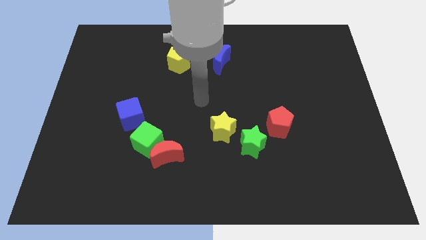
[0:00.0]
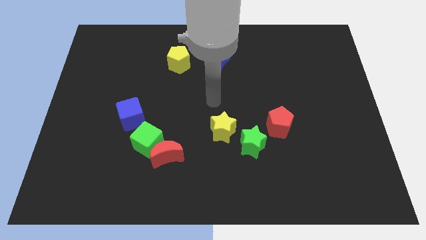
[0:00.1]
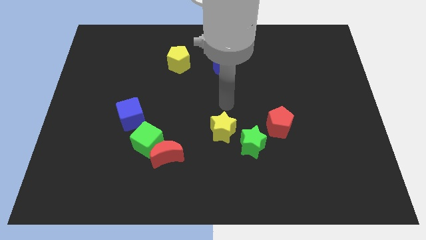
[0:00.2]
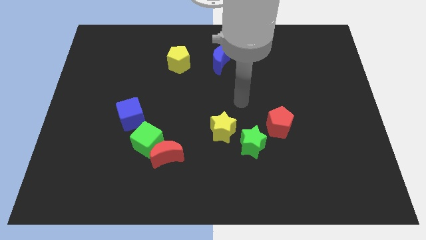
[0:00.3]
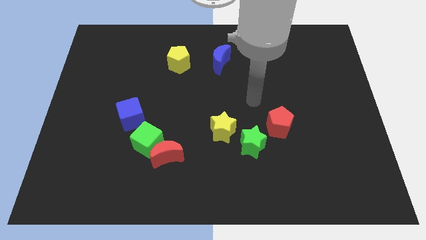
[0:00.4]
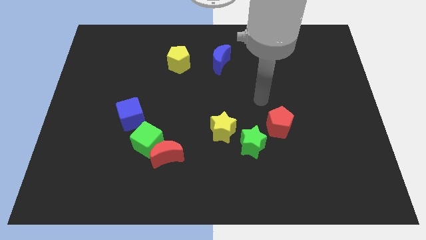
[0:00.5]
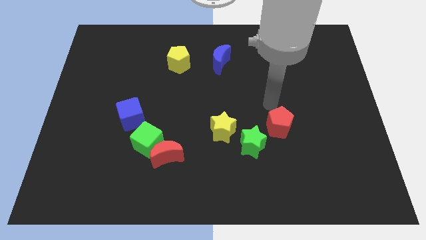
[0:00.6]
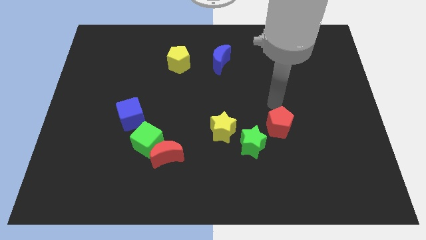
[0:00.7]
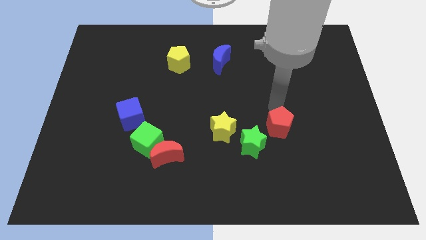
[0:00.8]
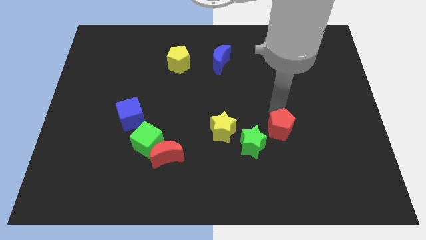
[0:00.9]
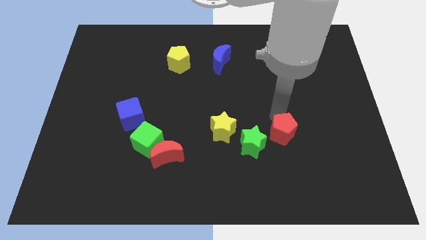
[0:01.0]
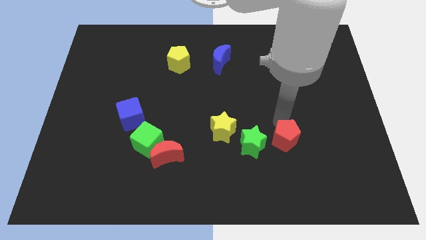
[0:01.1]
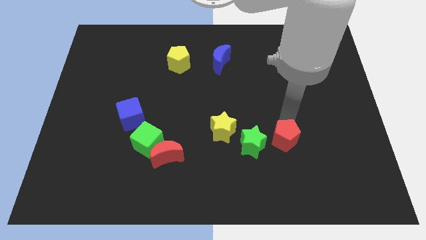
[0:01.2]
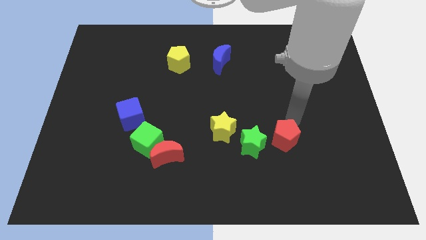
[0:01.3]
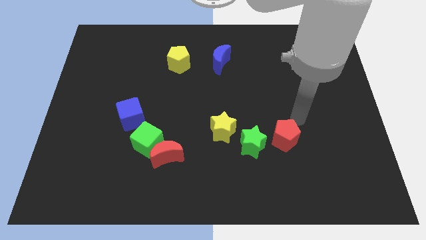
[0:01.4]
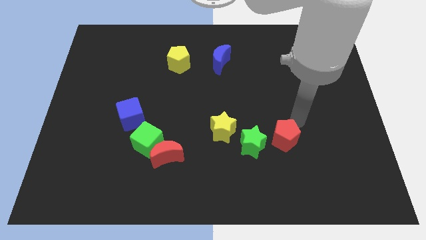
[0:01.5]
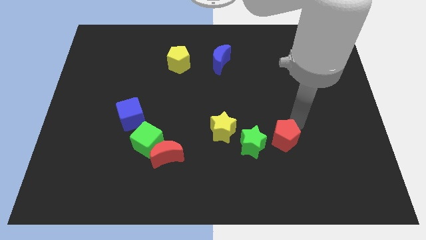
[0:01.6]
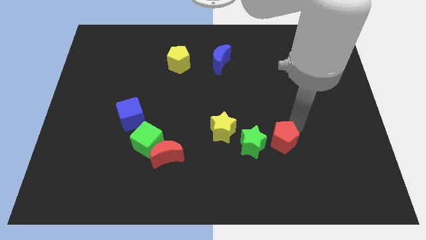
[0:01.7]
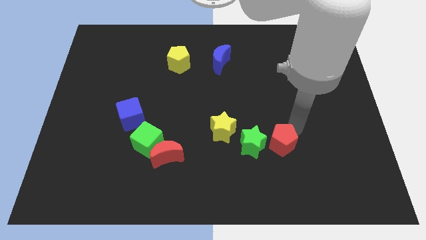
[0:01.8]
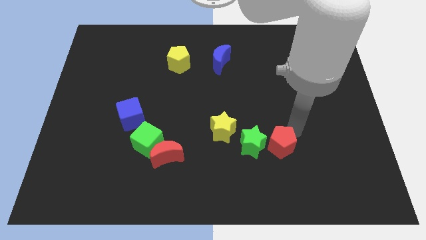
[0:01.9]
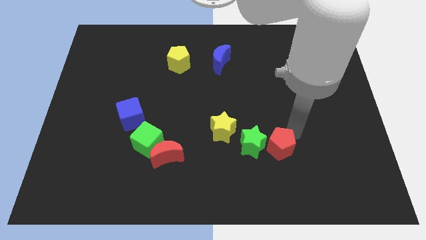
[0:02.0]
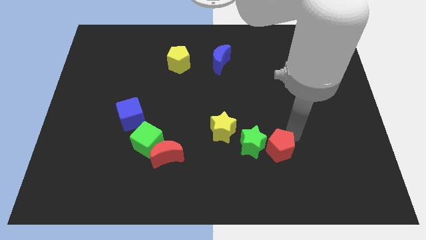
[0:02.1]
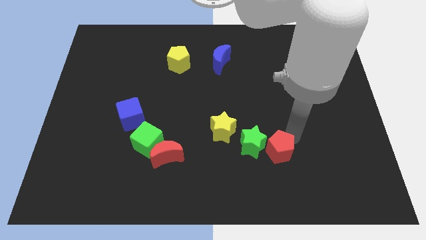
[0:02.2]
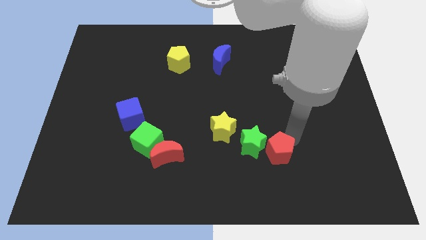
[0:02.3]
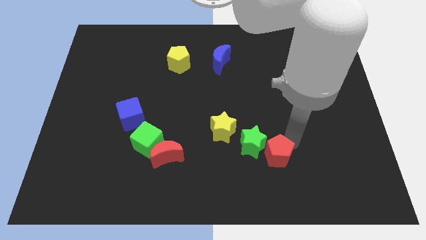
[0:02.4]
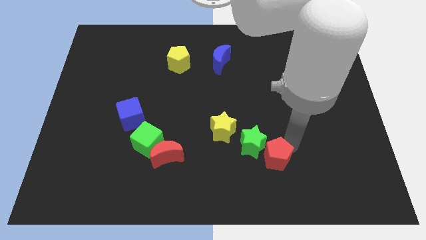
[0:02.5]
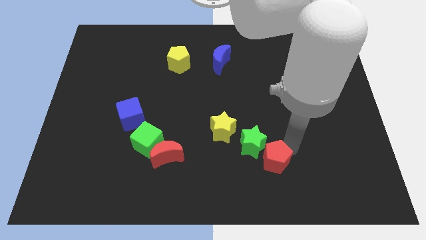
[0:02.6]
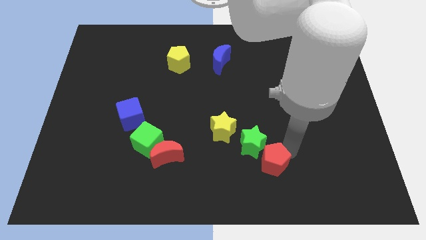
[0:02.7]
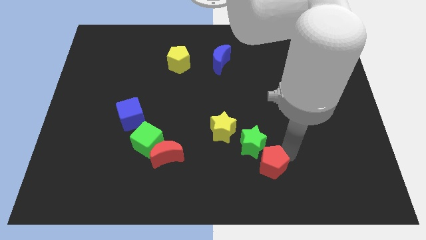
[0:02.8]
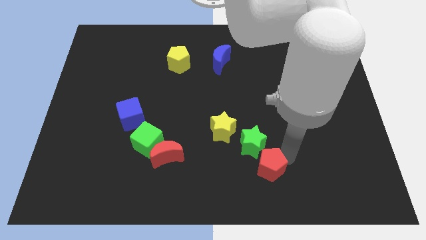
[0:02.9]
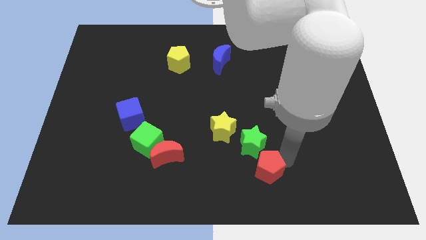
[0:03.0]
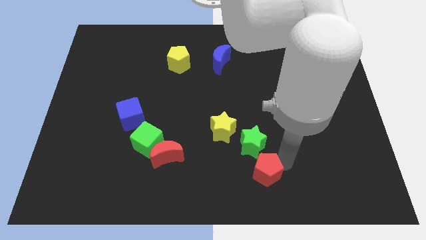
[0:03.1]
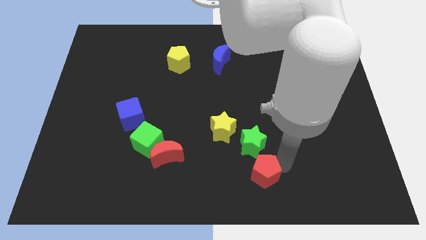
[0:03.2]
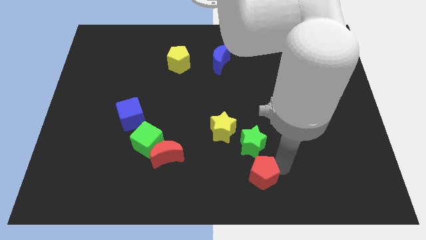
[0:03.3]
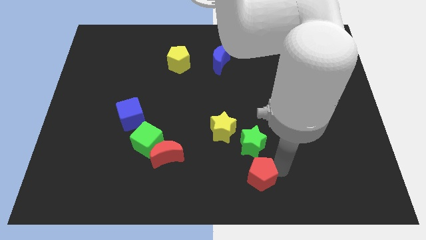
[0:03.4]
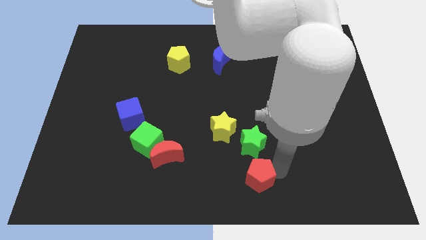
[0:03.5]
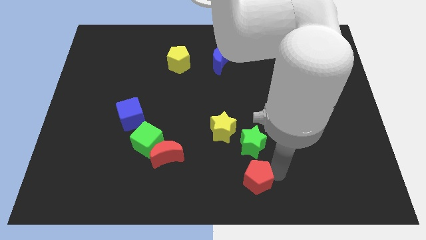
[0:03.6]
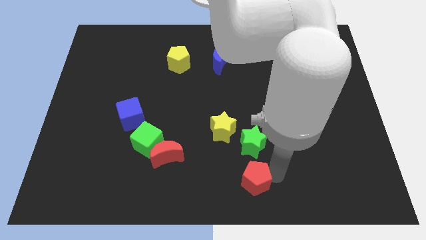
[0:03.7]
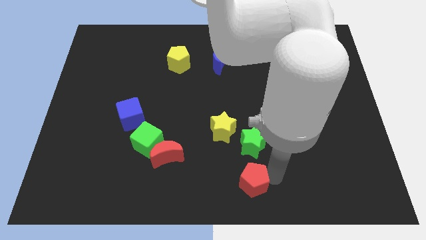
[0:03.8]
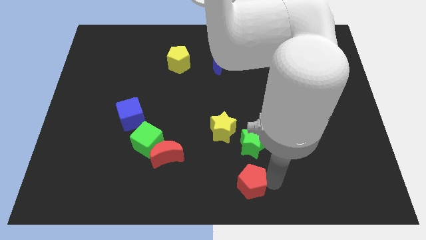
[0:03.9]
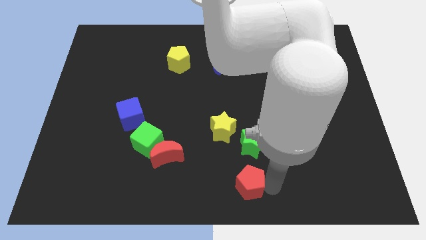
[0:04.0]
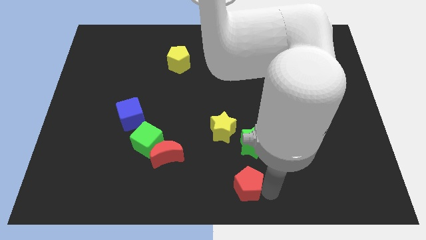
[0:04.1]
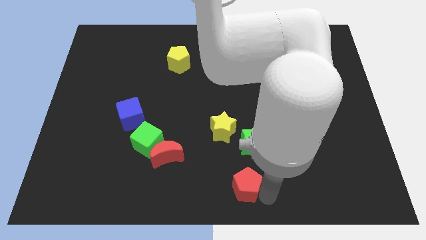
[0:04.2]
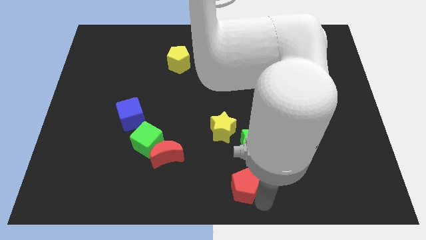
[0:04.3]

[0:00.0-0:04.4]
push the red pentagon to the bottom of the yellow star

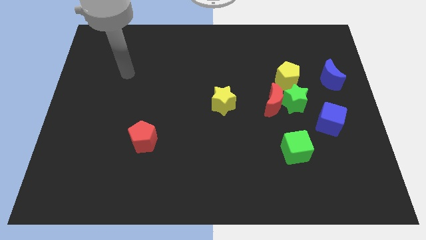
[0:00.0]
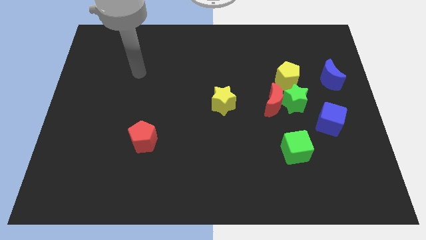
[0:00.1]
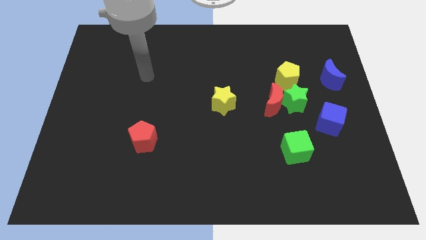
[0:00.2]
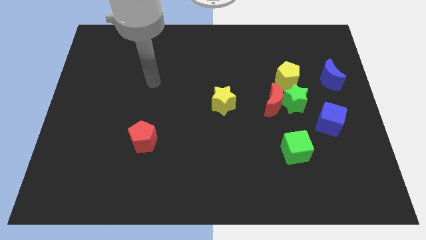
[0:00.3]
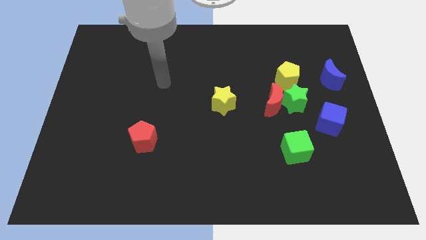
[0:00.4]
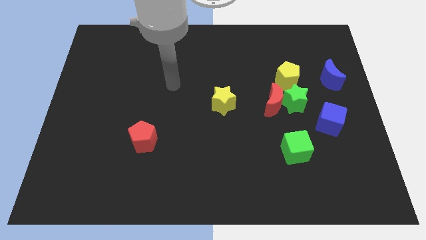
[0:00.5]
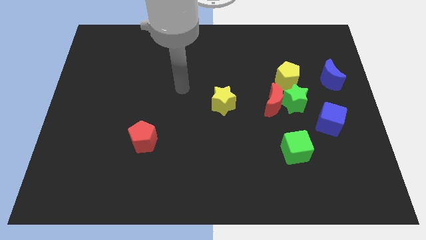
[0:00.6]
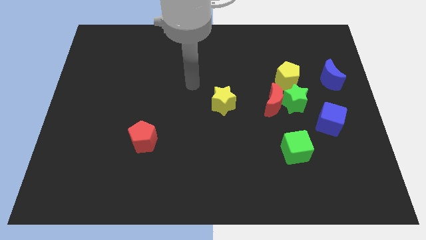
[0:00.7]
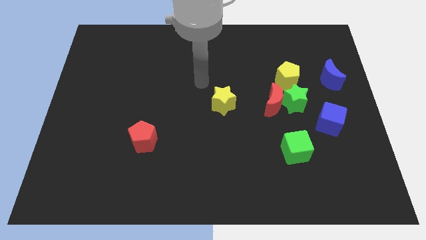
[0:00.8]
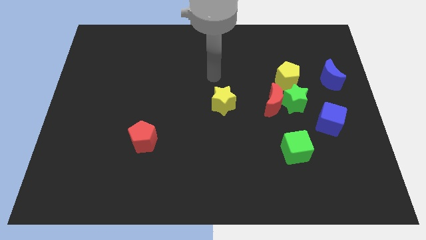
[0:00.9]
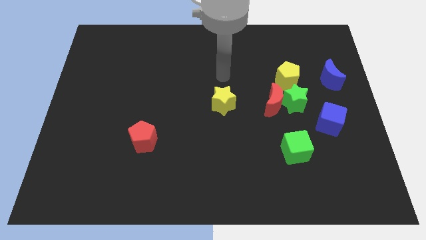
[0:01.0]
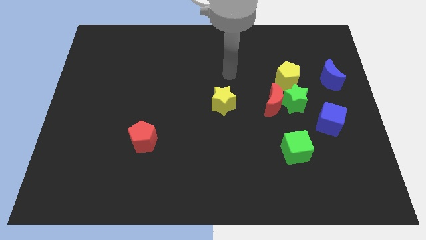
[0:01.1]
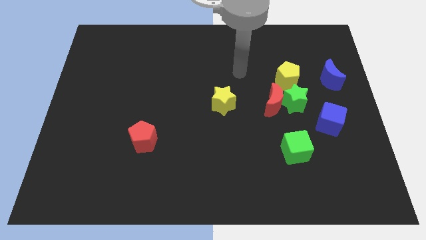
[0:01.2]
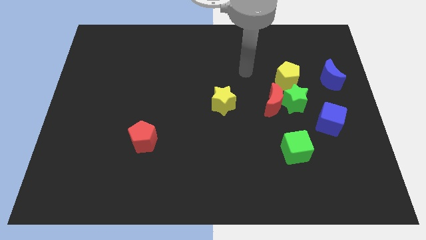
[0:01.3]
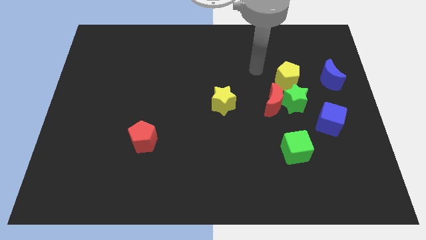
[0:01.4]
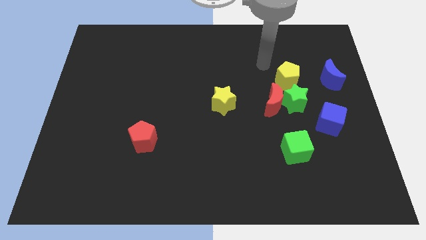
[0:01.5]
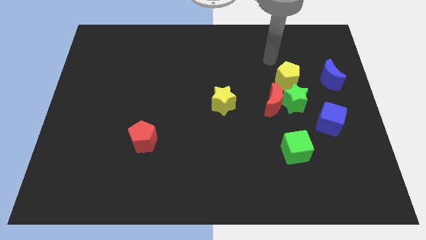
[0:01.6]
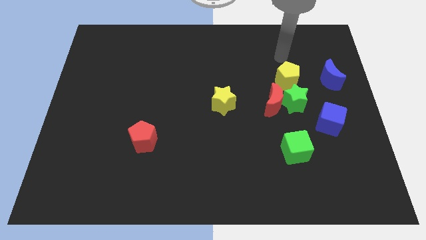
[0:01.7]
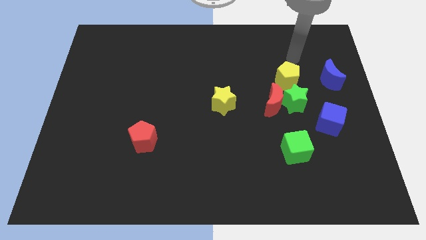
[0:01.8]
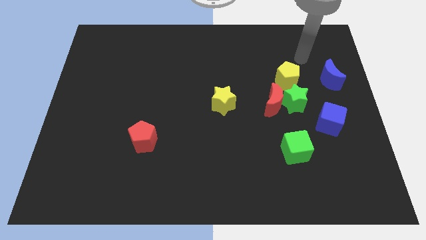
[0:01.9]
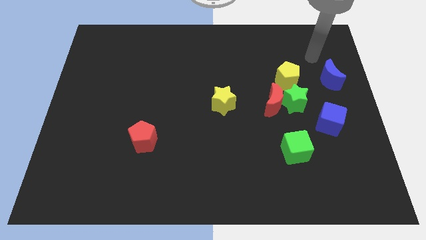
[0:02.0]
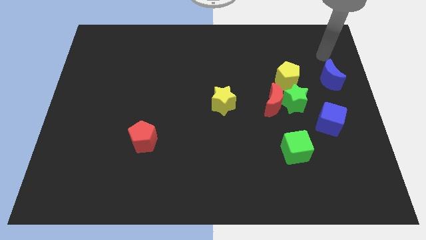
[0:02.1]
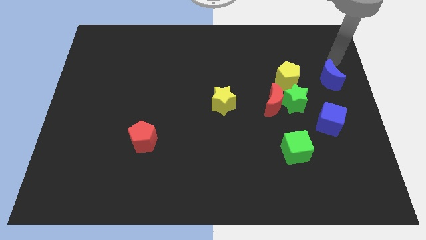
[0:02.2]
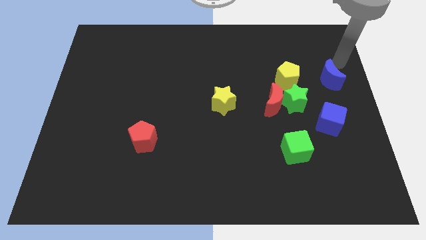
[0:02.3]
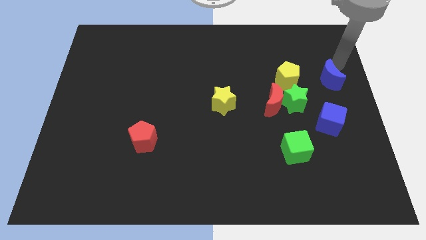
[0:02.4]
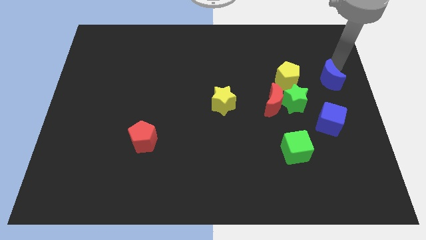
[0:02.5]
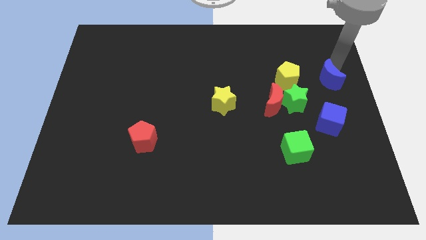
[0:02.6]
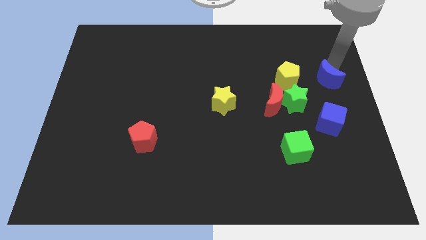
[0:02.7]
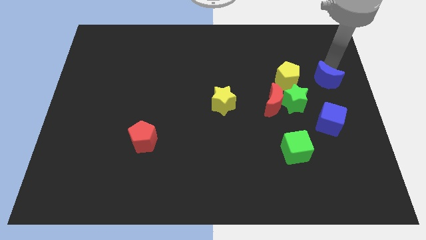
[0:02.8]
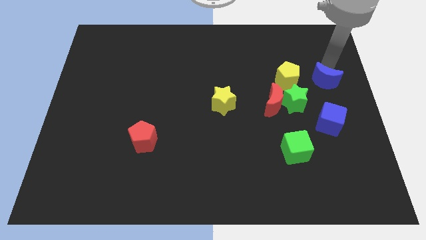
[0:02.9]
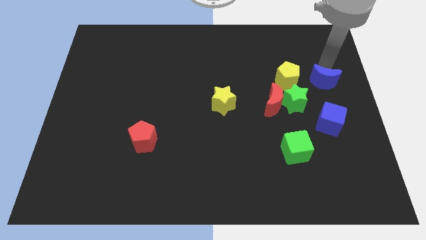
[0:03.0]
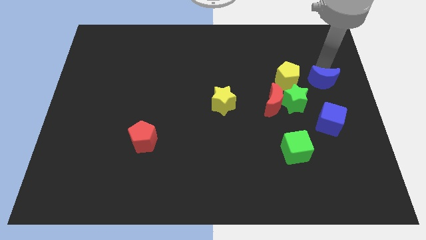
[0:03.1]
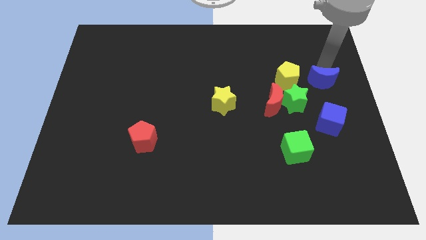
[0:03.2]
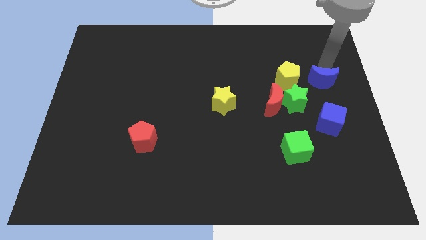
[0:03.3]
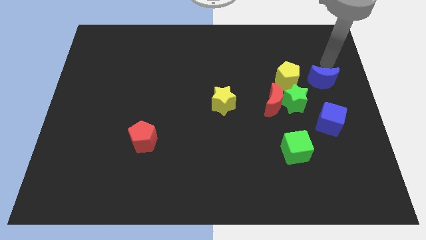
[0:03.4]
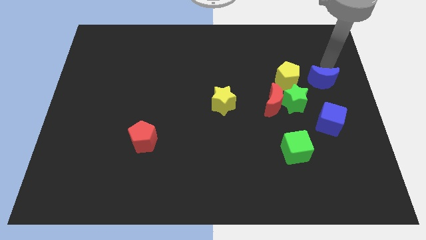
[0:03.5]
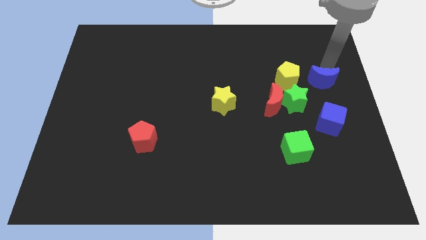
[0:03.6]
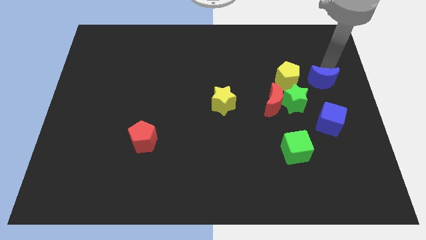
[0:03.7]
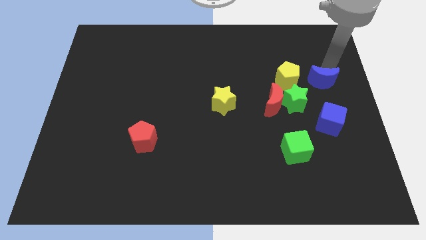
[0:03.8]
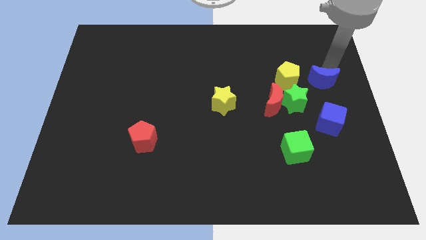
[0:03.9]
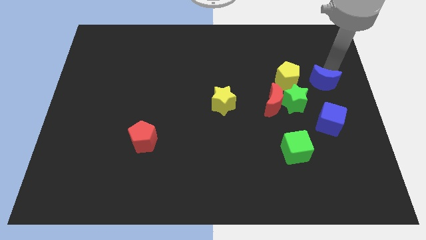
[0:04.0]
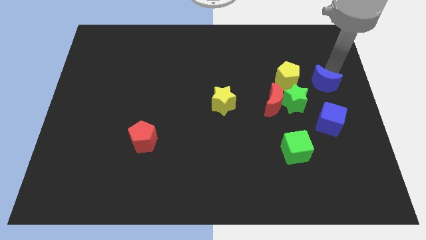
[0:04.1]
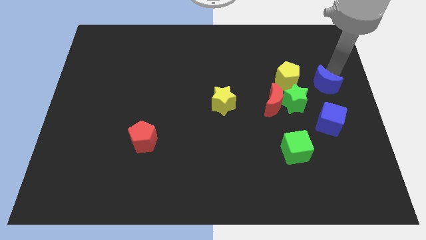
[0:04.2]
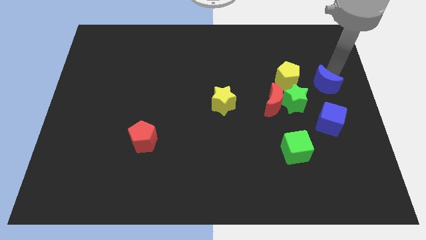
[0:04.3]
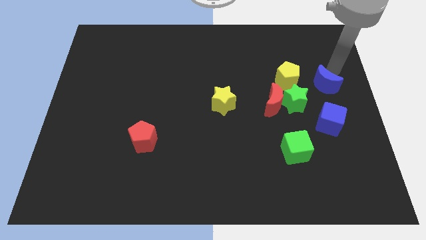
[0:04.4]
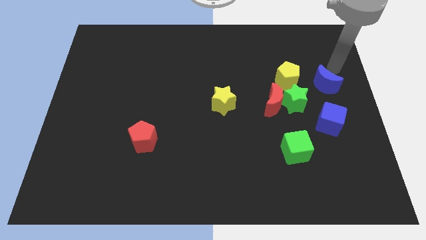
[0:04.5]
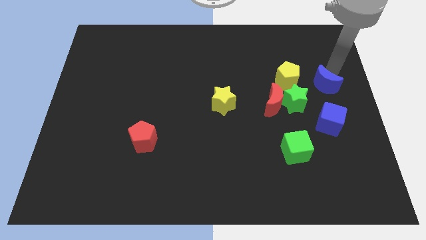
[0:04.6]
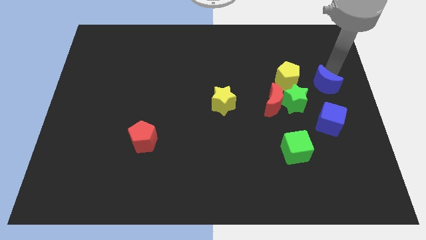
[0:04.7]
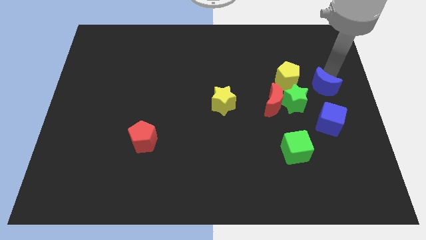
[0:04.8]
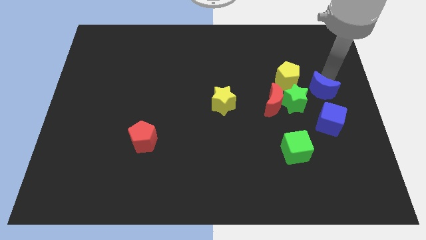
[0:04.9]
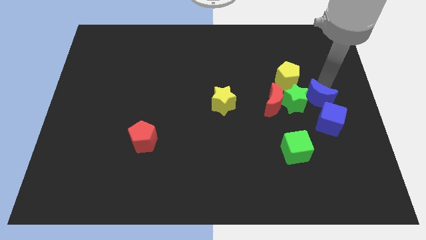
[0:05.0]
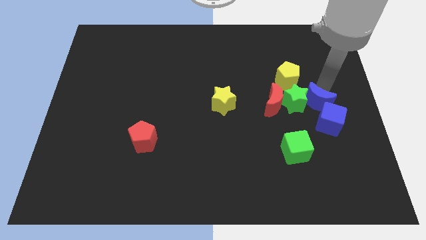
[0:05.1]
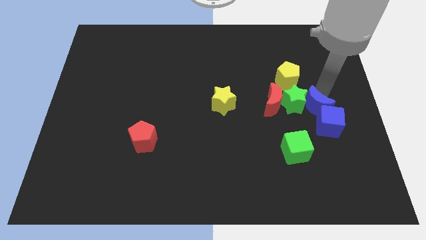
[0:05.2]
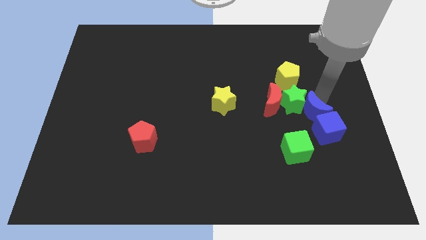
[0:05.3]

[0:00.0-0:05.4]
push the blue moon to the bottom right of the red moon
